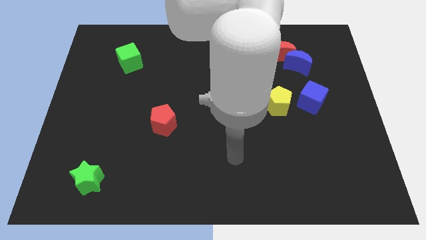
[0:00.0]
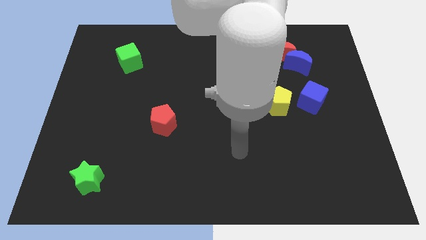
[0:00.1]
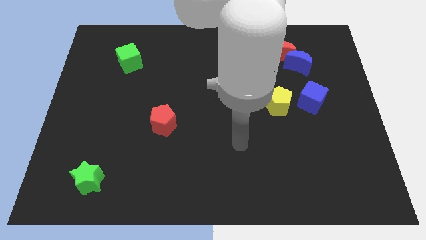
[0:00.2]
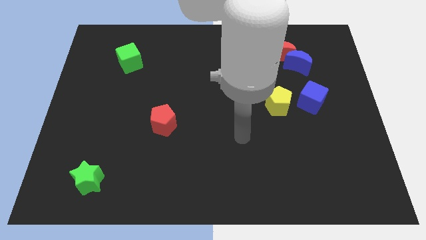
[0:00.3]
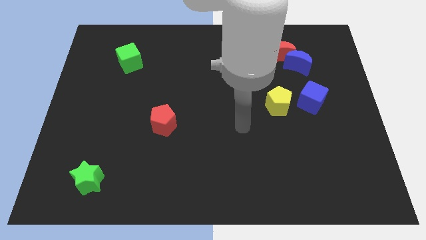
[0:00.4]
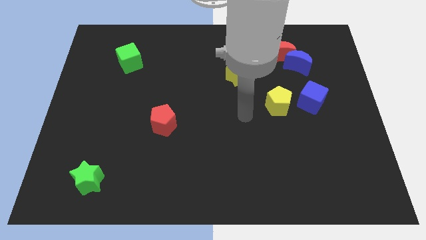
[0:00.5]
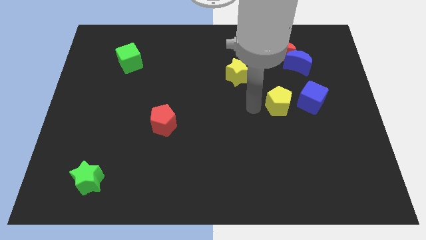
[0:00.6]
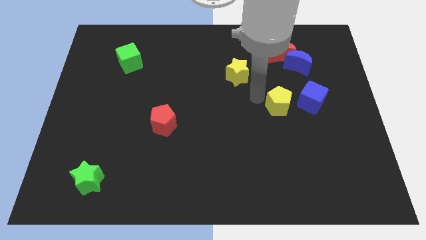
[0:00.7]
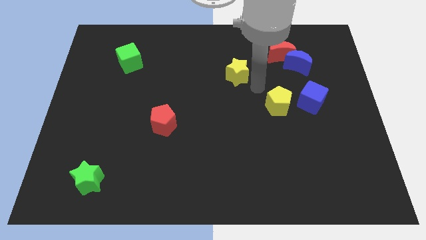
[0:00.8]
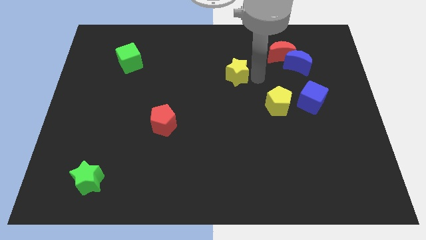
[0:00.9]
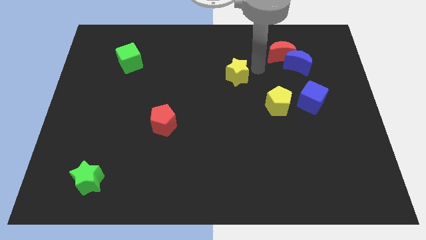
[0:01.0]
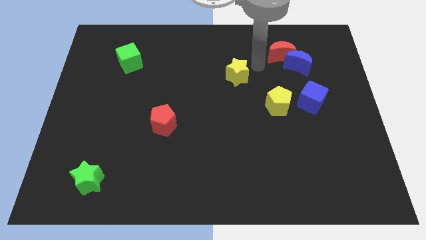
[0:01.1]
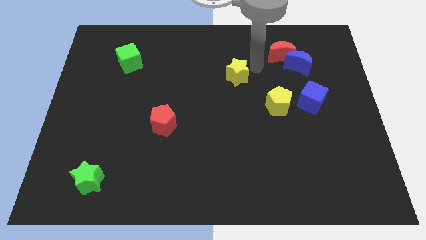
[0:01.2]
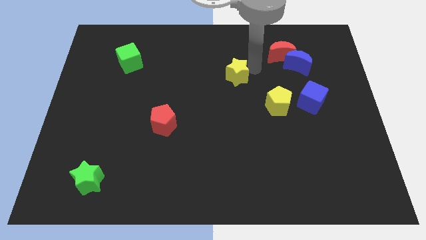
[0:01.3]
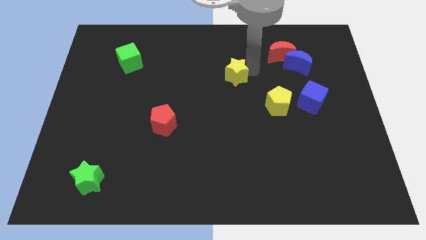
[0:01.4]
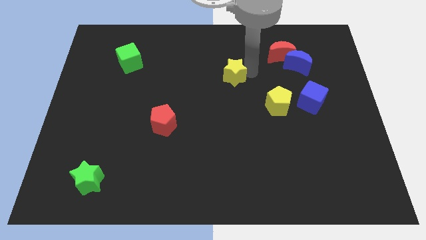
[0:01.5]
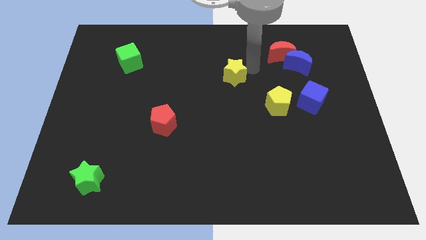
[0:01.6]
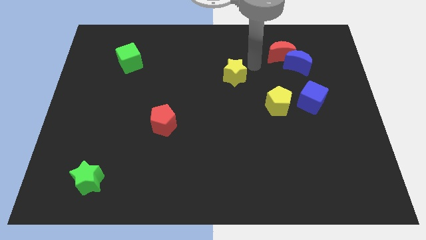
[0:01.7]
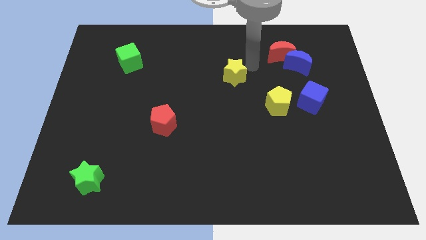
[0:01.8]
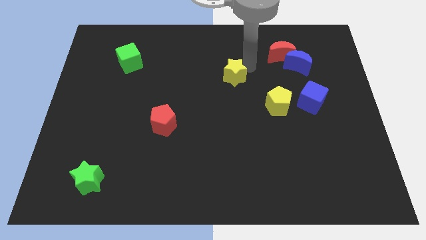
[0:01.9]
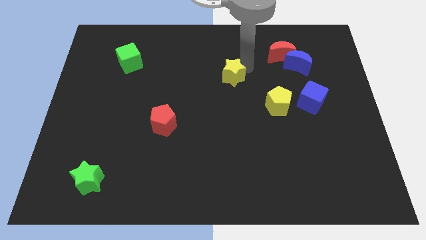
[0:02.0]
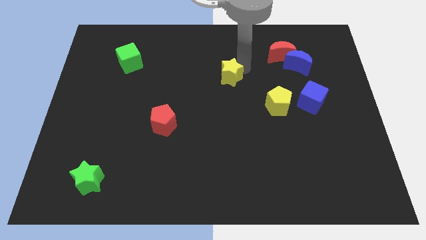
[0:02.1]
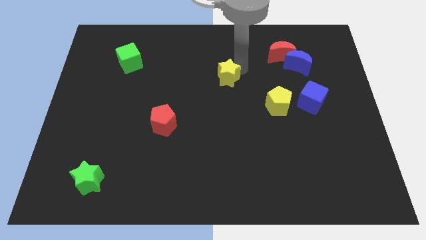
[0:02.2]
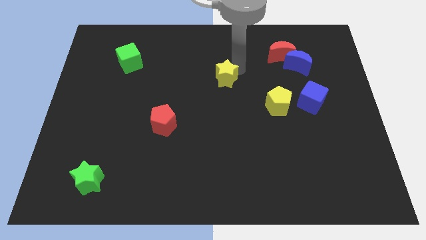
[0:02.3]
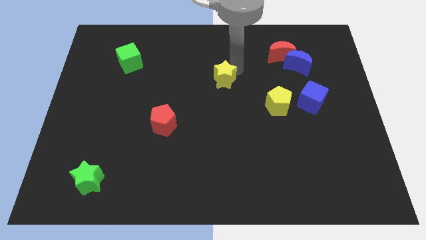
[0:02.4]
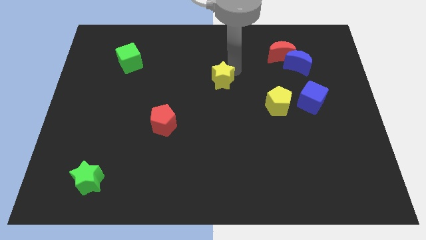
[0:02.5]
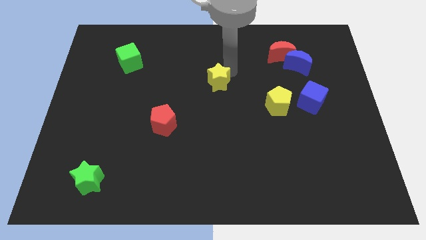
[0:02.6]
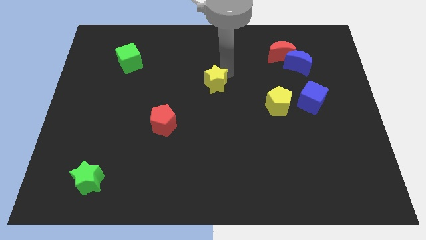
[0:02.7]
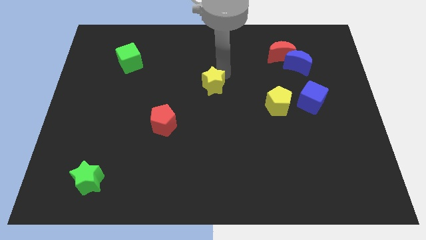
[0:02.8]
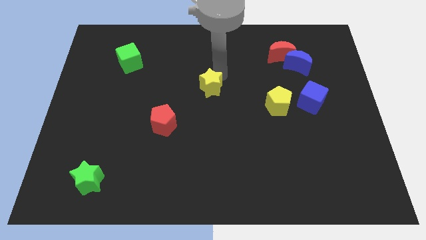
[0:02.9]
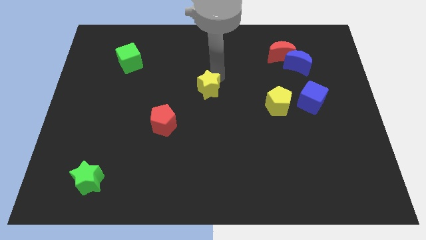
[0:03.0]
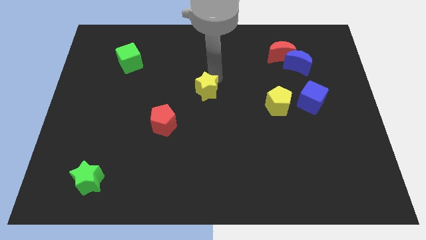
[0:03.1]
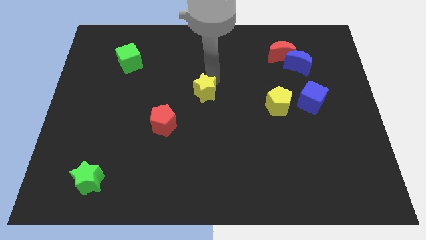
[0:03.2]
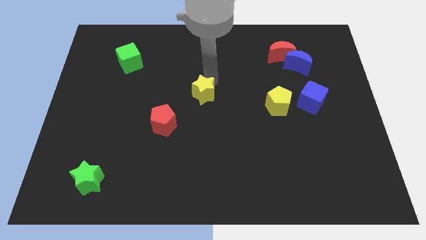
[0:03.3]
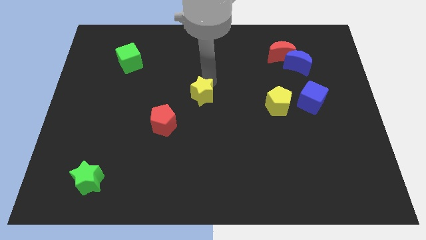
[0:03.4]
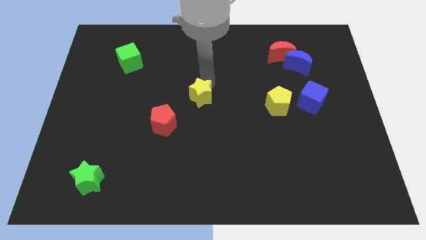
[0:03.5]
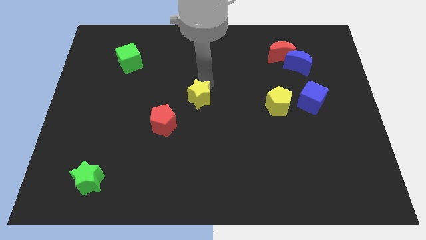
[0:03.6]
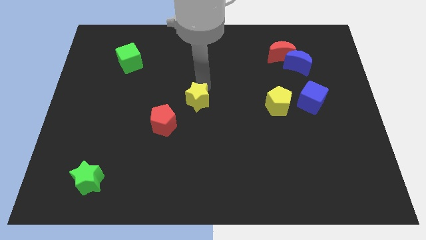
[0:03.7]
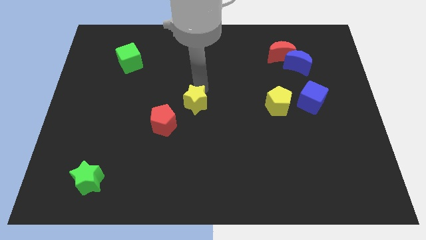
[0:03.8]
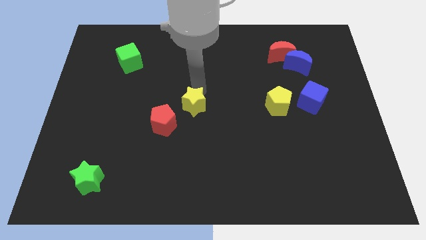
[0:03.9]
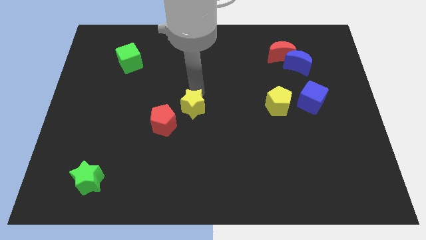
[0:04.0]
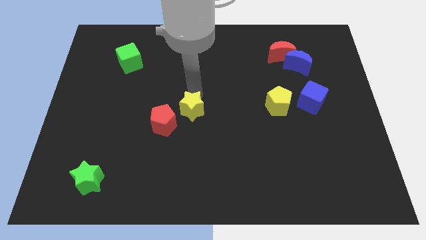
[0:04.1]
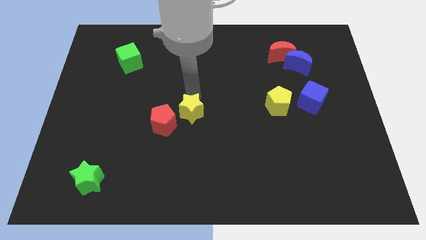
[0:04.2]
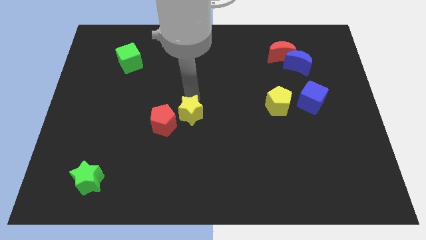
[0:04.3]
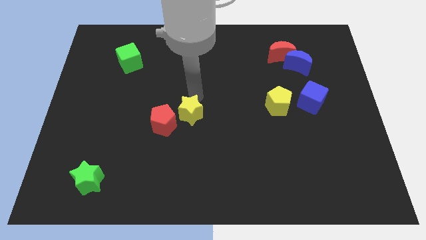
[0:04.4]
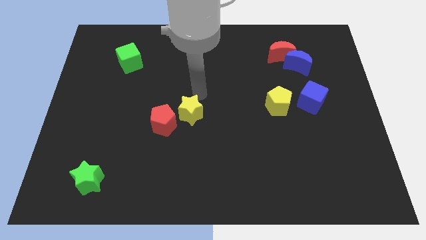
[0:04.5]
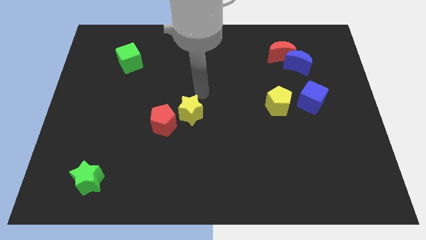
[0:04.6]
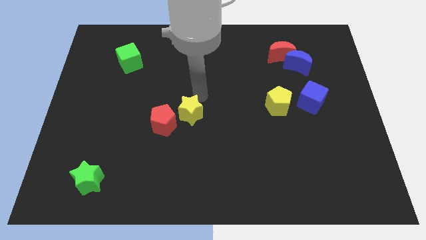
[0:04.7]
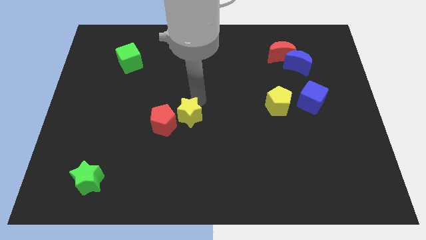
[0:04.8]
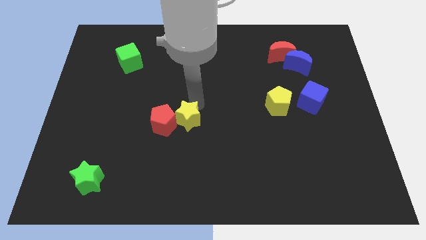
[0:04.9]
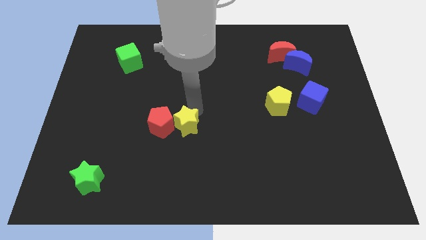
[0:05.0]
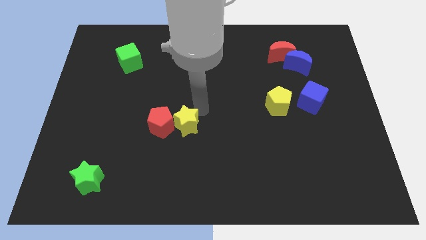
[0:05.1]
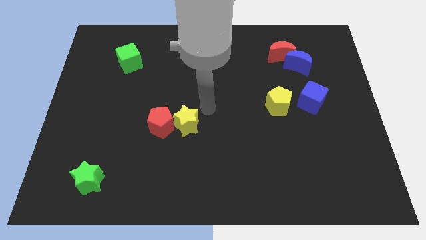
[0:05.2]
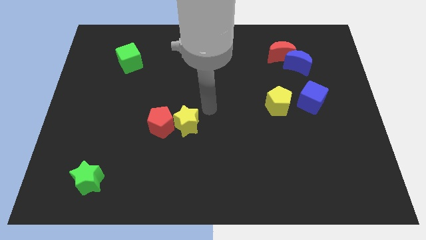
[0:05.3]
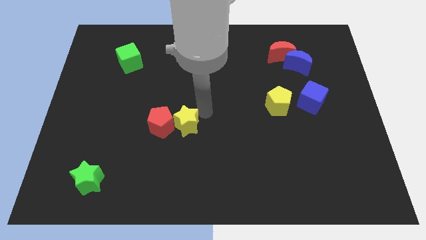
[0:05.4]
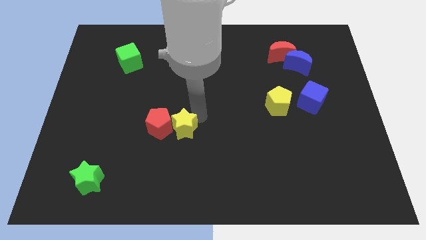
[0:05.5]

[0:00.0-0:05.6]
push the yellow star down and to the left diagonally

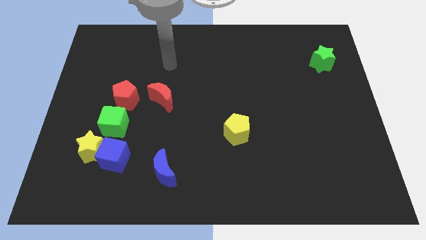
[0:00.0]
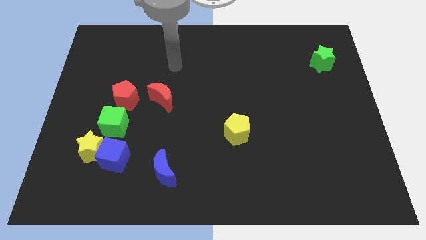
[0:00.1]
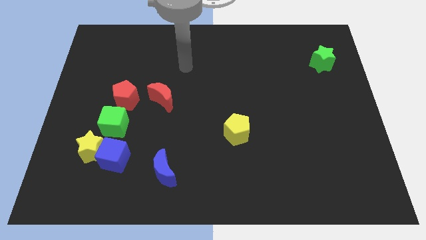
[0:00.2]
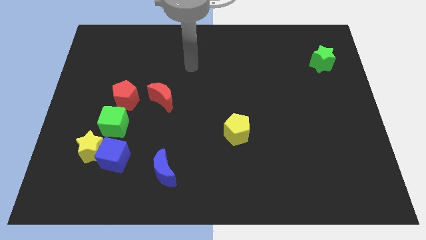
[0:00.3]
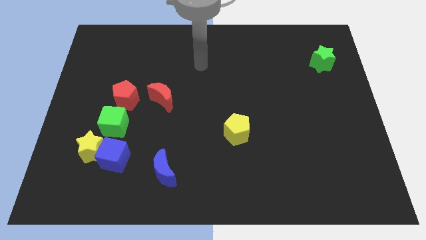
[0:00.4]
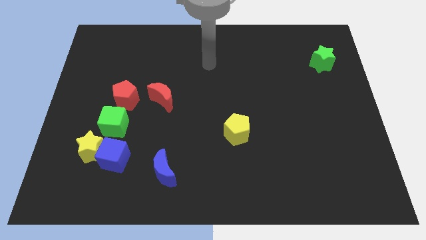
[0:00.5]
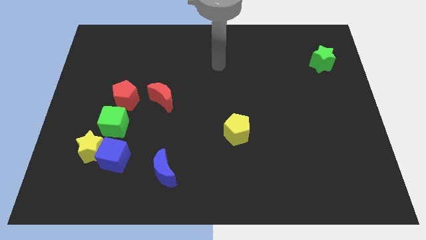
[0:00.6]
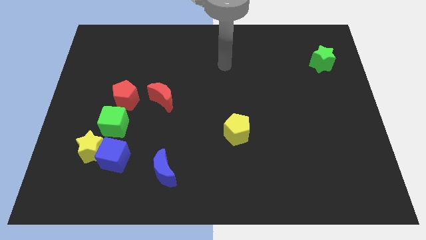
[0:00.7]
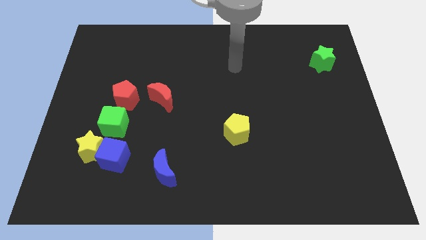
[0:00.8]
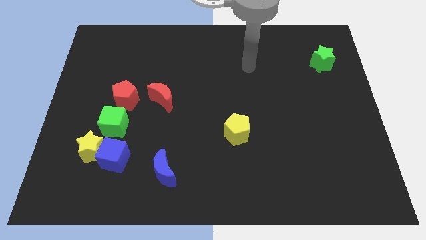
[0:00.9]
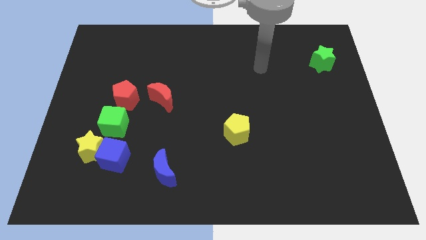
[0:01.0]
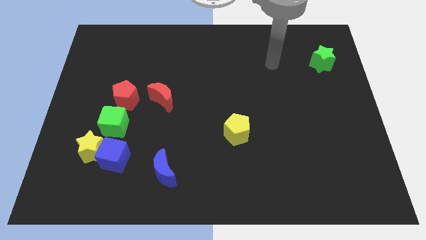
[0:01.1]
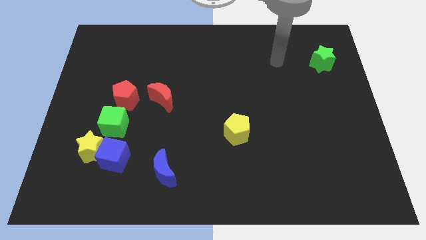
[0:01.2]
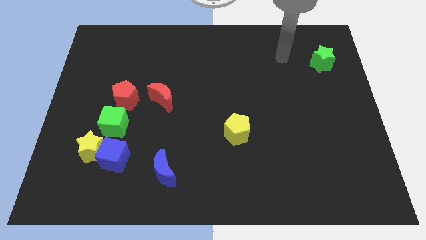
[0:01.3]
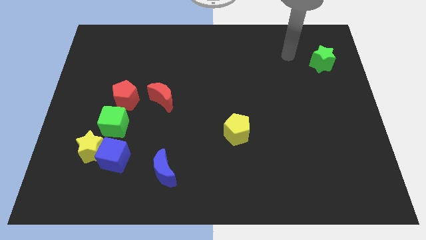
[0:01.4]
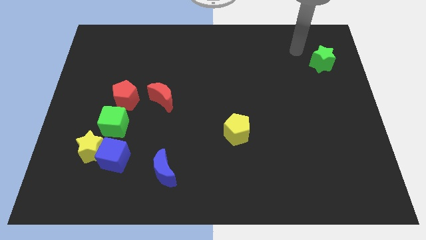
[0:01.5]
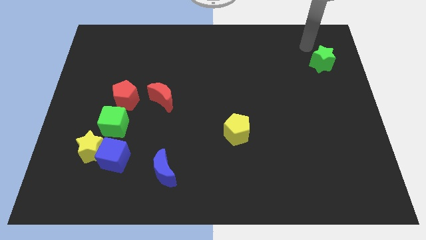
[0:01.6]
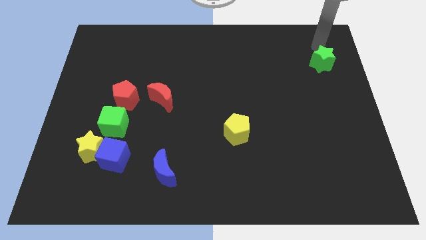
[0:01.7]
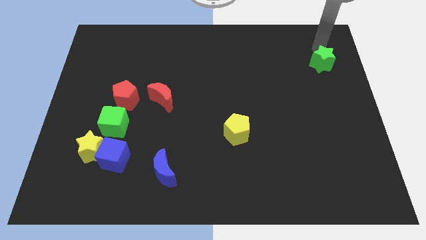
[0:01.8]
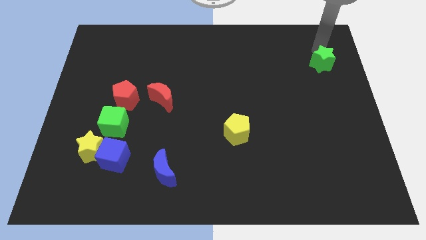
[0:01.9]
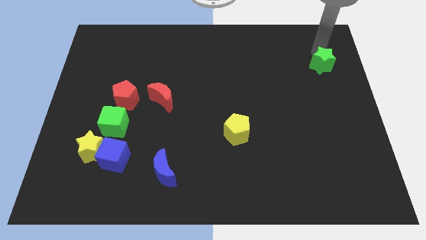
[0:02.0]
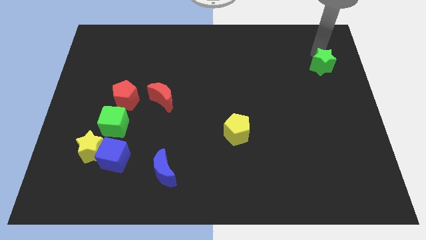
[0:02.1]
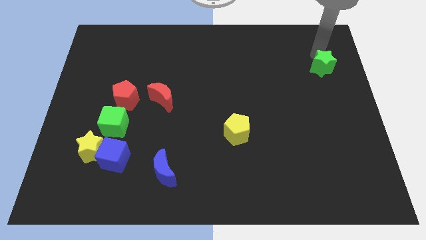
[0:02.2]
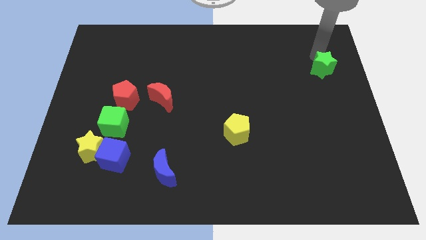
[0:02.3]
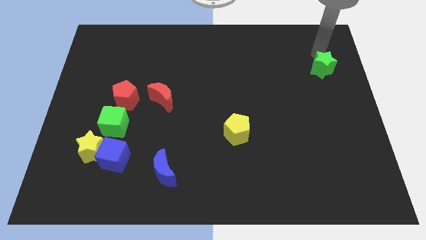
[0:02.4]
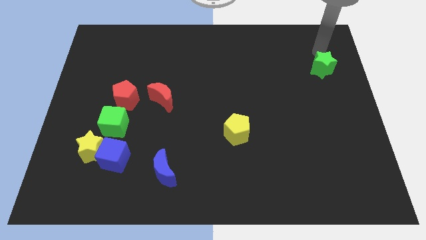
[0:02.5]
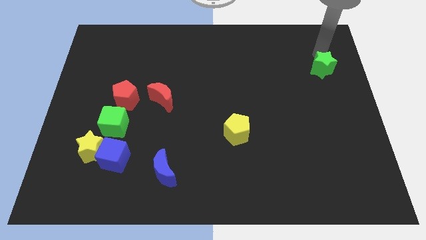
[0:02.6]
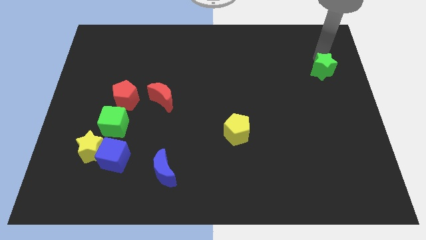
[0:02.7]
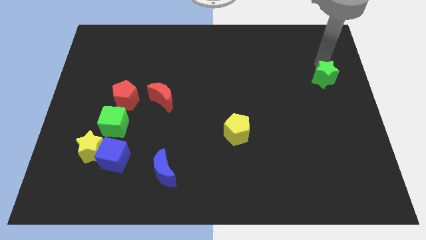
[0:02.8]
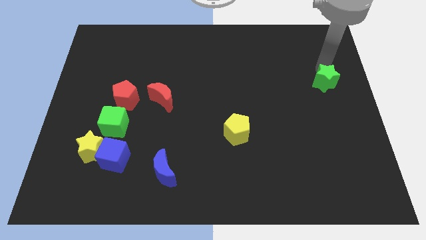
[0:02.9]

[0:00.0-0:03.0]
slightly move the green star downwards
